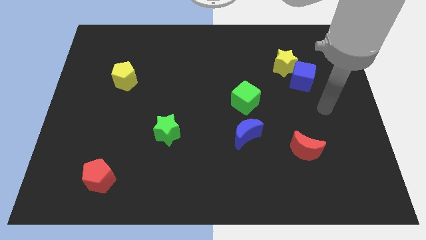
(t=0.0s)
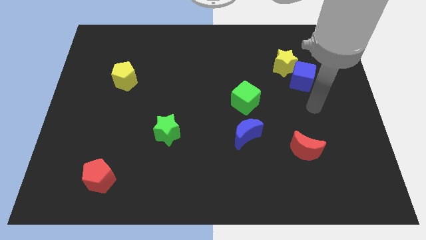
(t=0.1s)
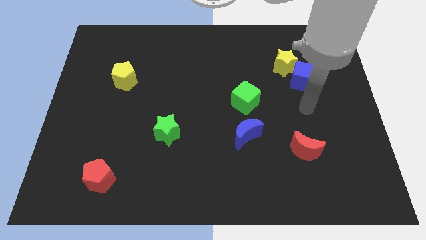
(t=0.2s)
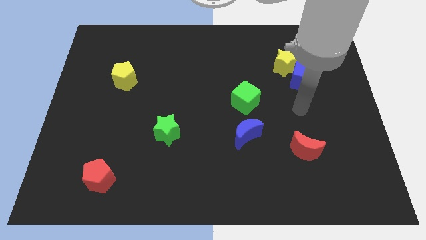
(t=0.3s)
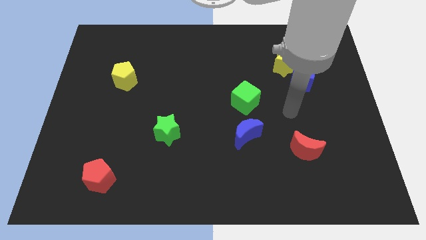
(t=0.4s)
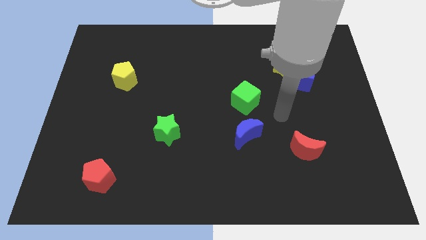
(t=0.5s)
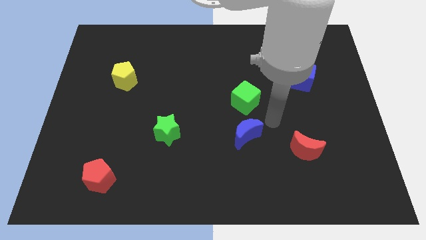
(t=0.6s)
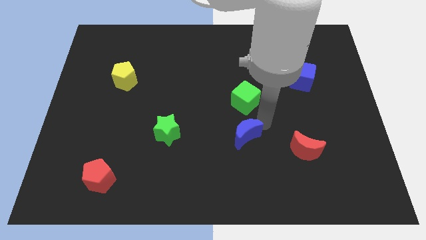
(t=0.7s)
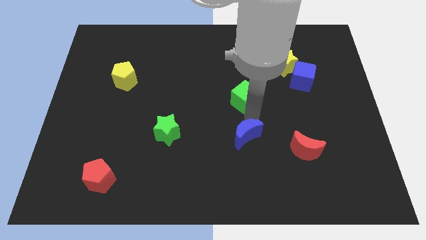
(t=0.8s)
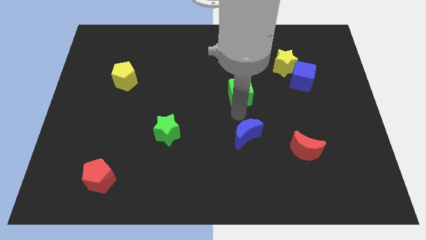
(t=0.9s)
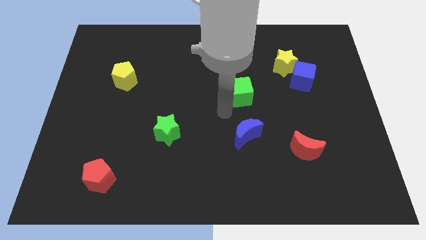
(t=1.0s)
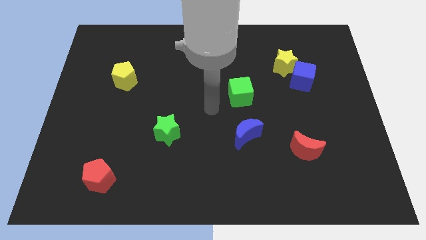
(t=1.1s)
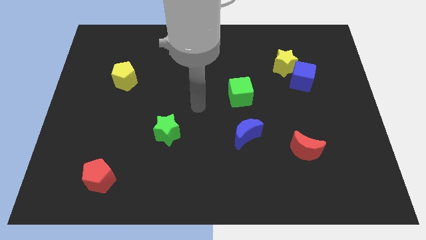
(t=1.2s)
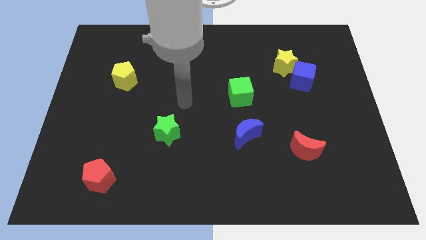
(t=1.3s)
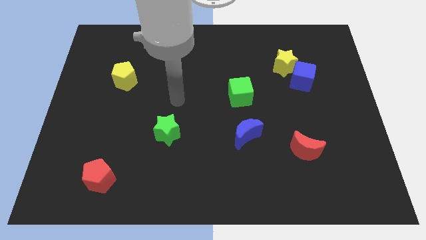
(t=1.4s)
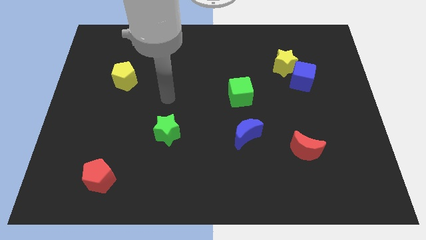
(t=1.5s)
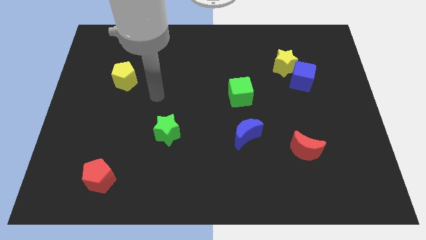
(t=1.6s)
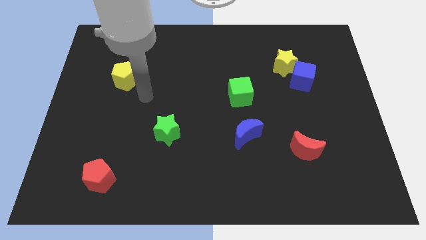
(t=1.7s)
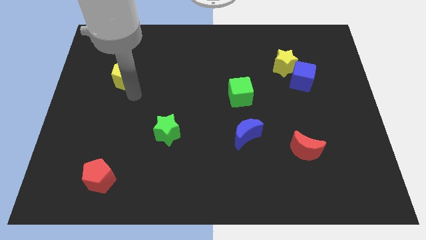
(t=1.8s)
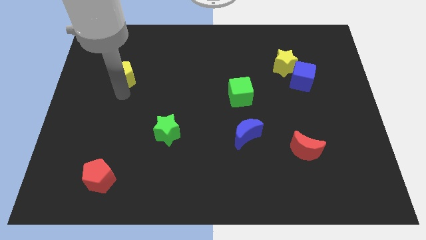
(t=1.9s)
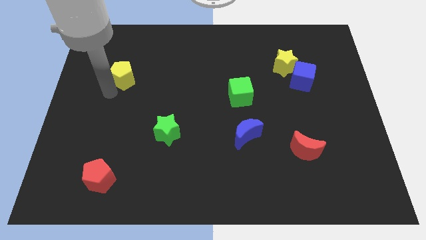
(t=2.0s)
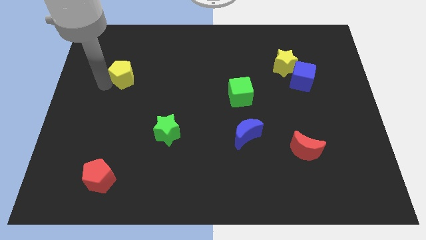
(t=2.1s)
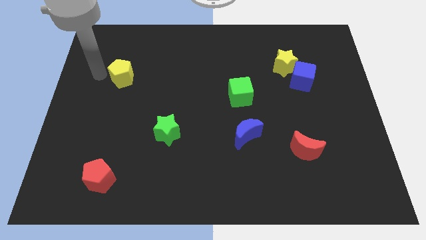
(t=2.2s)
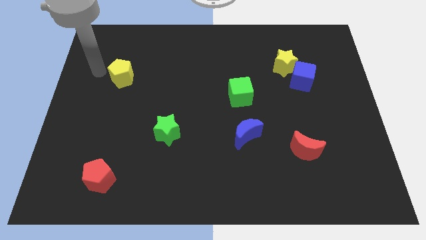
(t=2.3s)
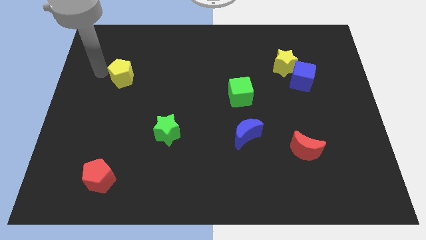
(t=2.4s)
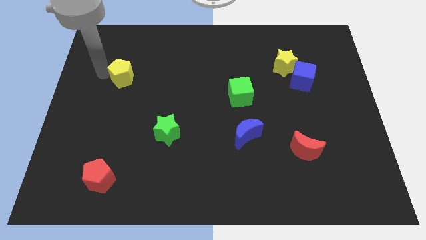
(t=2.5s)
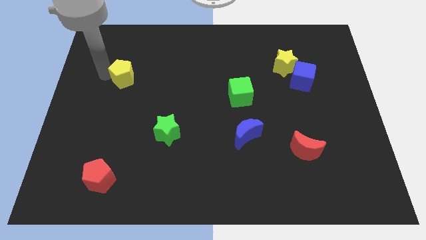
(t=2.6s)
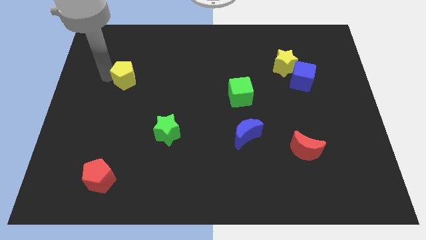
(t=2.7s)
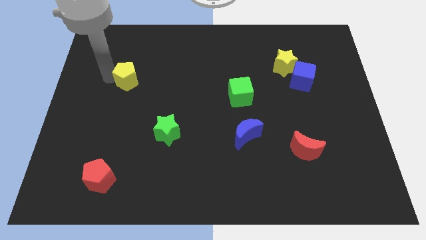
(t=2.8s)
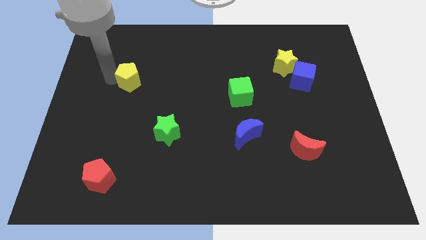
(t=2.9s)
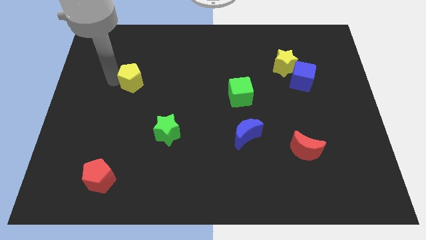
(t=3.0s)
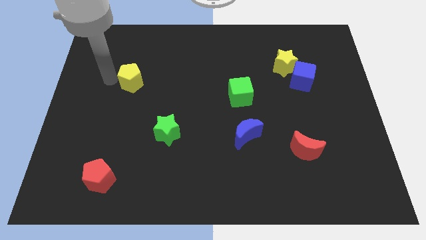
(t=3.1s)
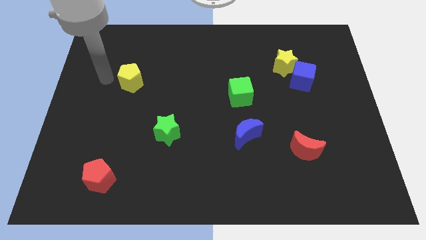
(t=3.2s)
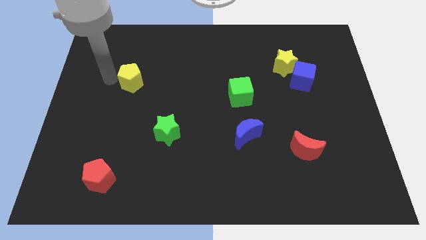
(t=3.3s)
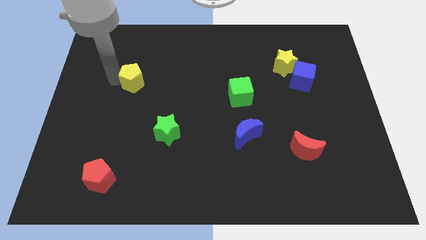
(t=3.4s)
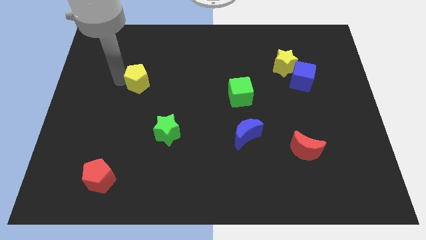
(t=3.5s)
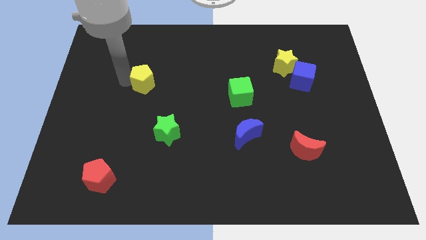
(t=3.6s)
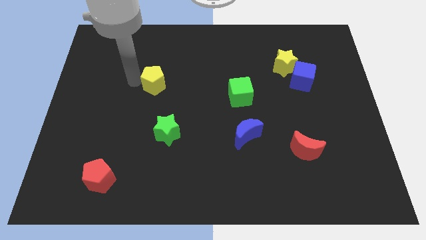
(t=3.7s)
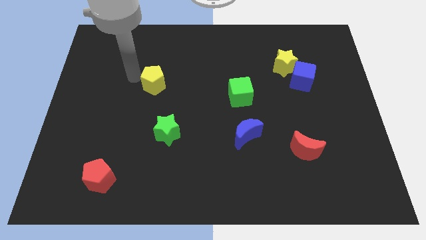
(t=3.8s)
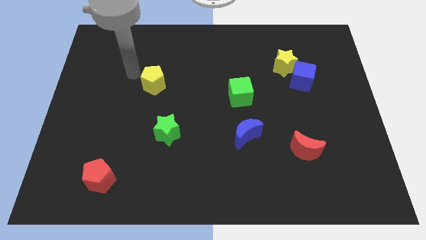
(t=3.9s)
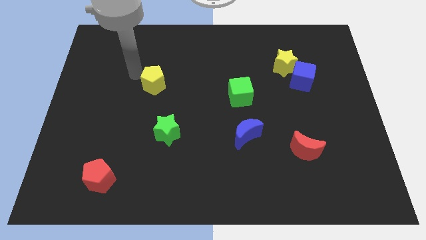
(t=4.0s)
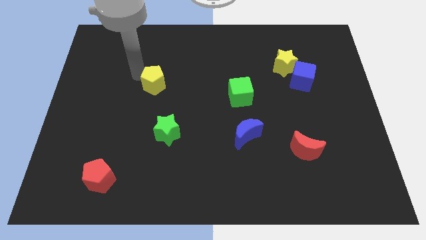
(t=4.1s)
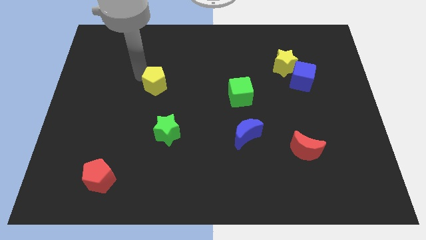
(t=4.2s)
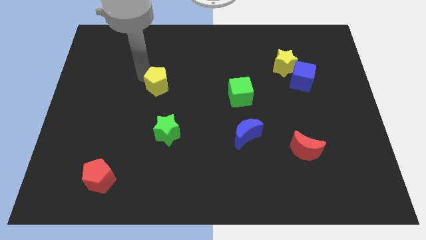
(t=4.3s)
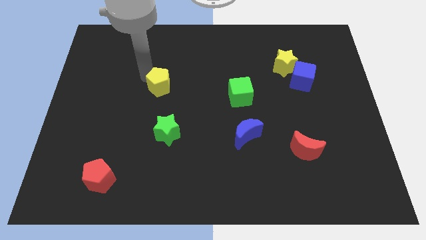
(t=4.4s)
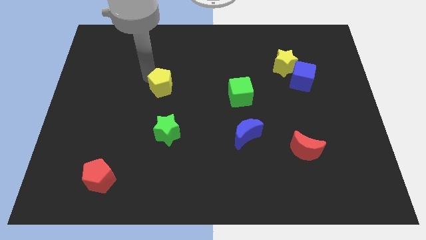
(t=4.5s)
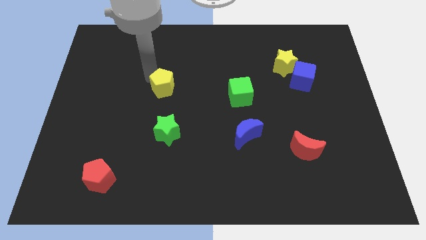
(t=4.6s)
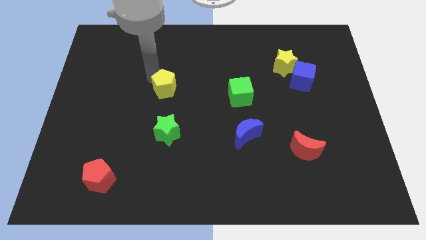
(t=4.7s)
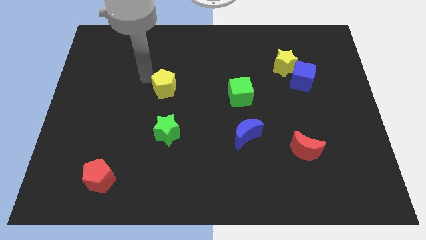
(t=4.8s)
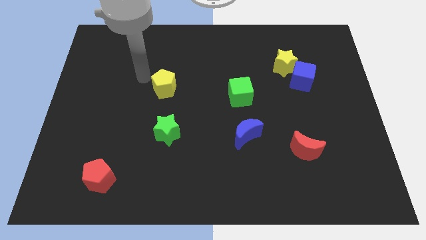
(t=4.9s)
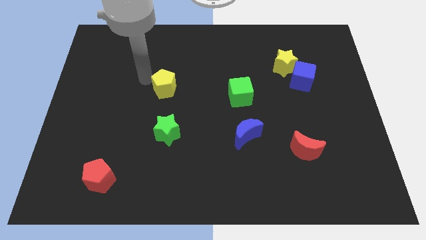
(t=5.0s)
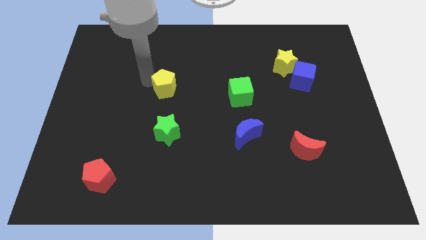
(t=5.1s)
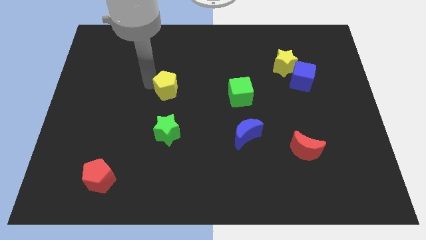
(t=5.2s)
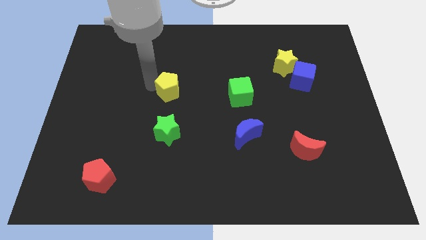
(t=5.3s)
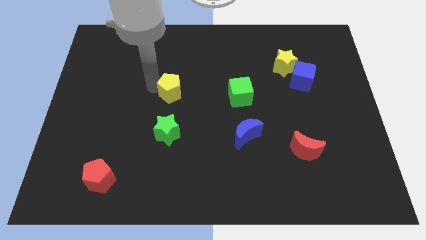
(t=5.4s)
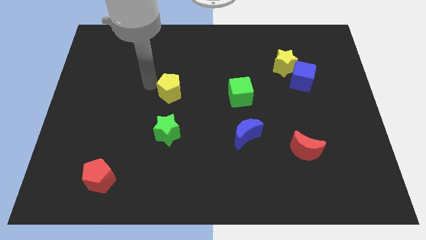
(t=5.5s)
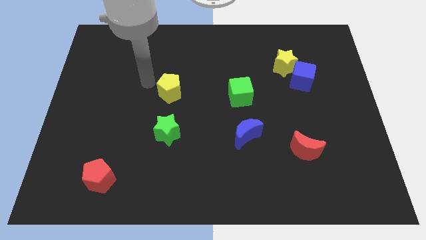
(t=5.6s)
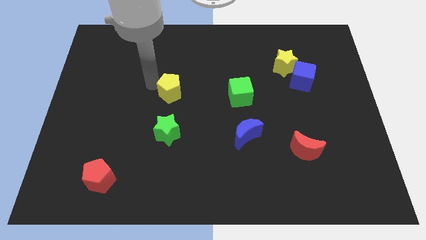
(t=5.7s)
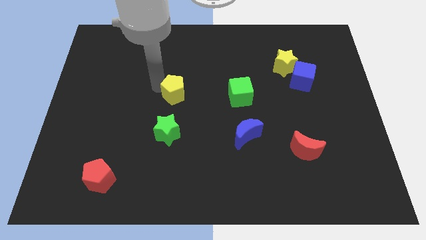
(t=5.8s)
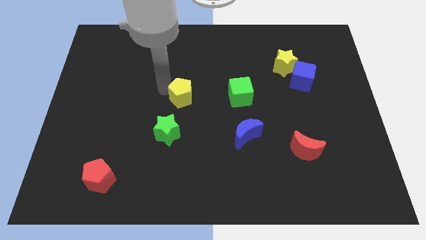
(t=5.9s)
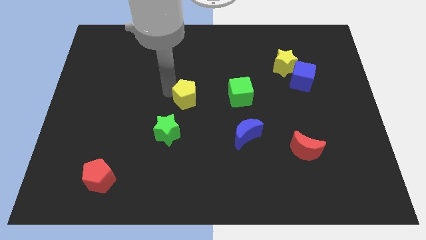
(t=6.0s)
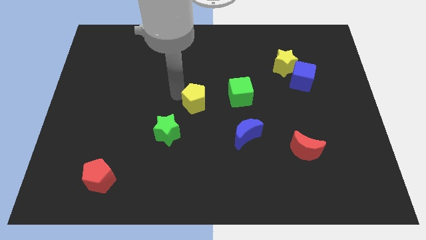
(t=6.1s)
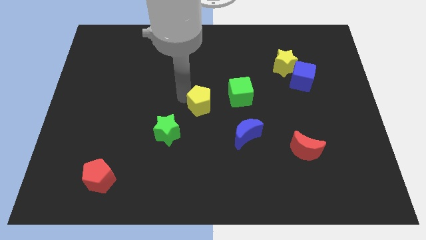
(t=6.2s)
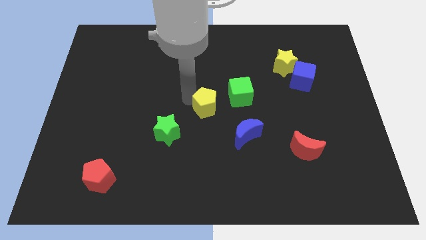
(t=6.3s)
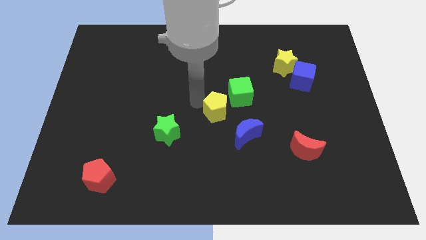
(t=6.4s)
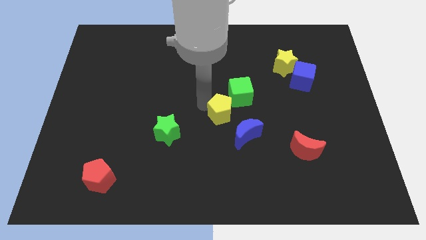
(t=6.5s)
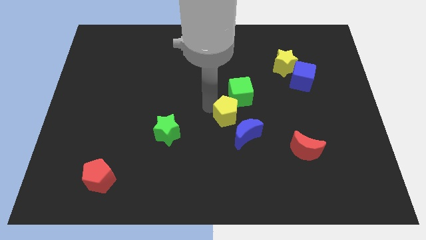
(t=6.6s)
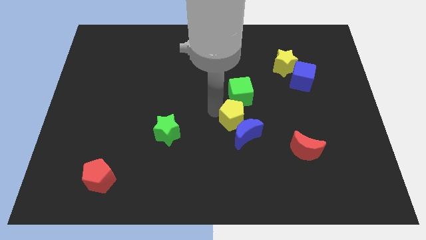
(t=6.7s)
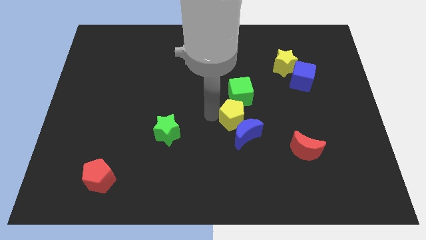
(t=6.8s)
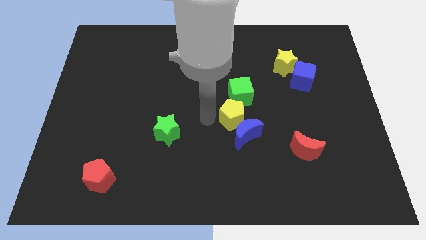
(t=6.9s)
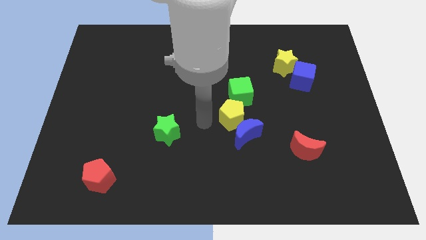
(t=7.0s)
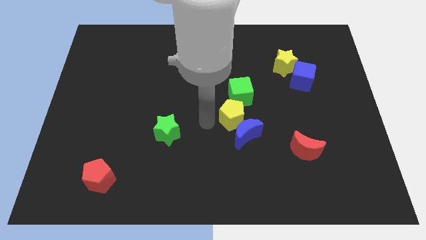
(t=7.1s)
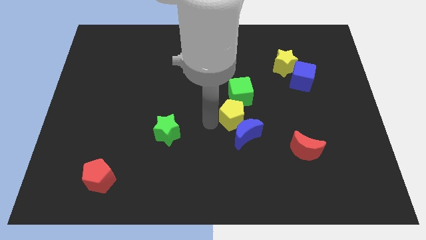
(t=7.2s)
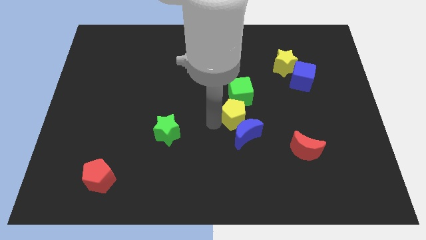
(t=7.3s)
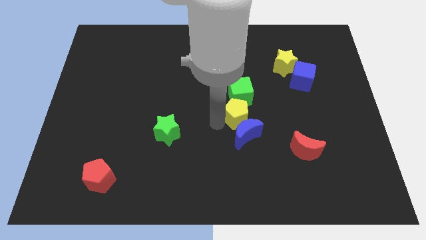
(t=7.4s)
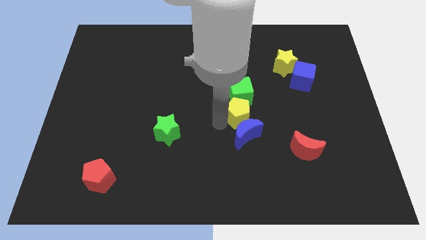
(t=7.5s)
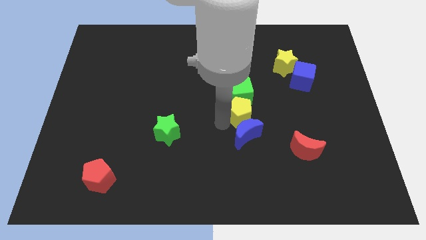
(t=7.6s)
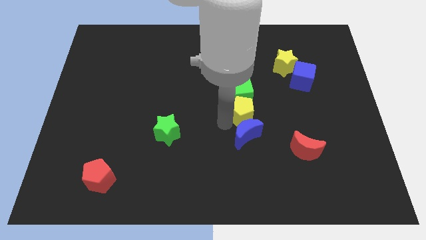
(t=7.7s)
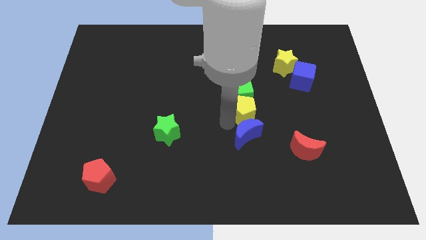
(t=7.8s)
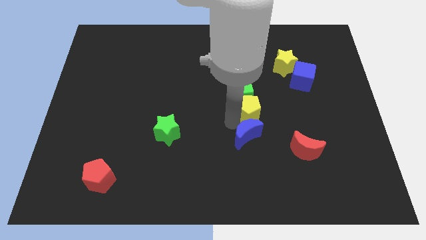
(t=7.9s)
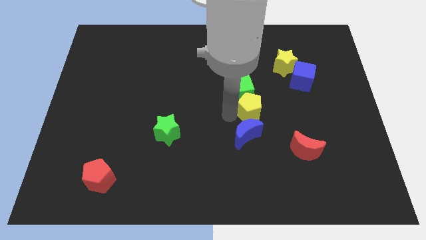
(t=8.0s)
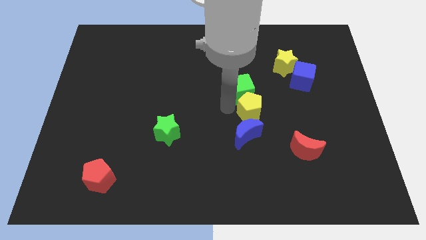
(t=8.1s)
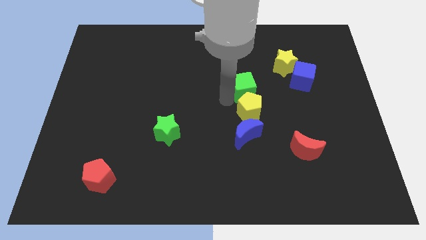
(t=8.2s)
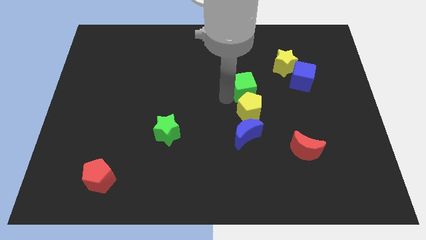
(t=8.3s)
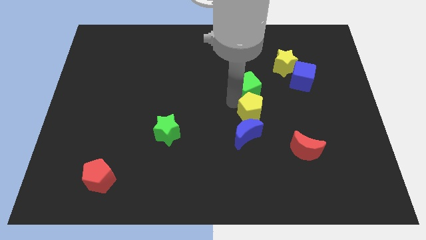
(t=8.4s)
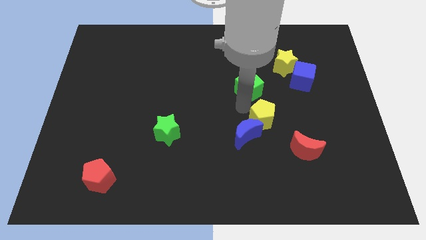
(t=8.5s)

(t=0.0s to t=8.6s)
move the yellow pentagon just right of the blue moon

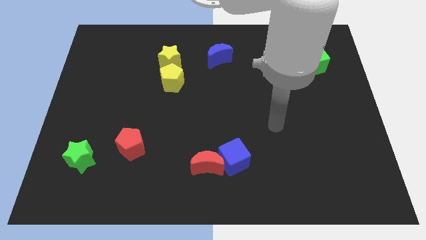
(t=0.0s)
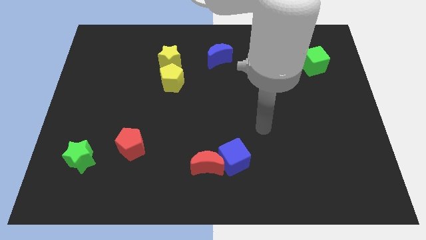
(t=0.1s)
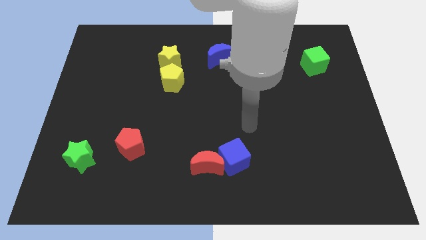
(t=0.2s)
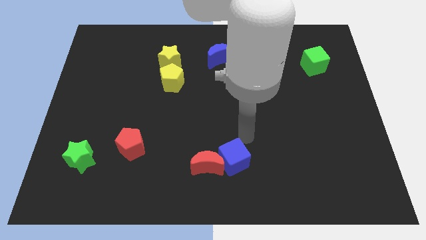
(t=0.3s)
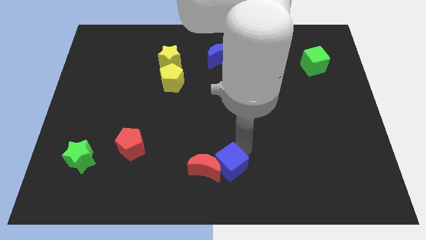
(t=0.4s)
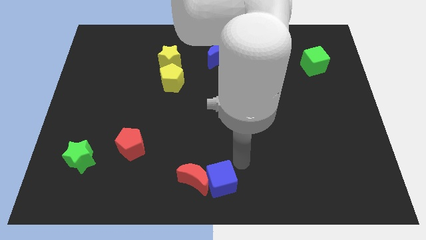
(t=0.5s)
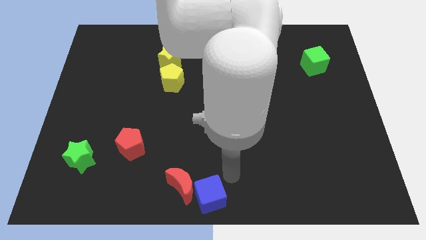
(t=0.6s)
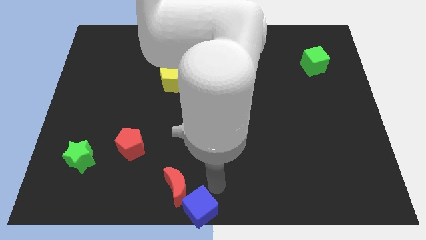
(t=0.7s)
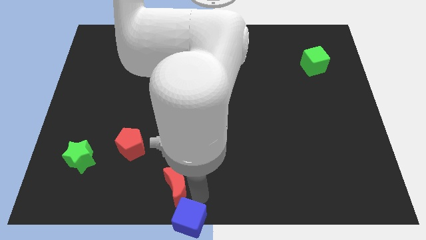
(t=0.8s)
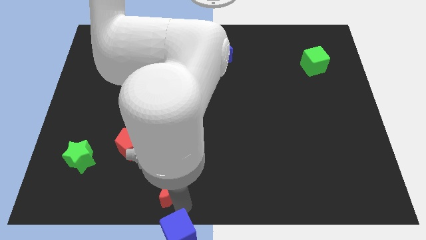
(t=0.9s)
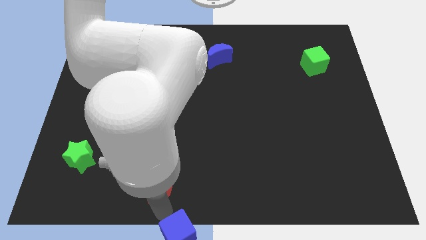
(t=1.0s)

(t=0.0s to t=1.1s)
push the red moon to the bottom right side of the red pentagon
